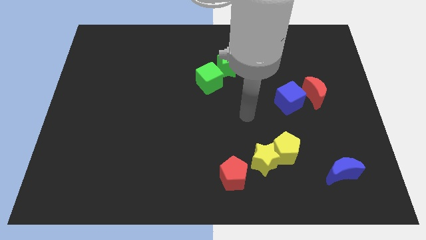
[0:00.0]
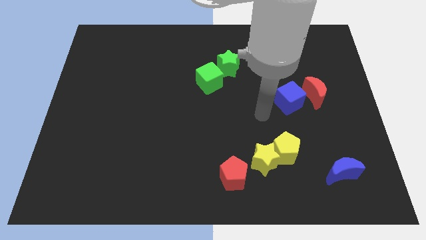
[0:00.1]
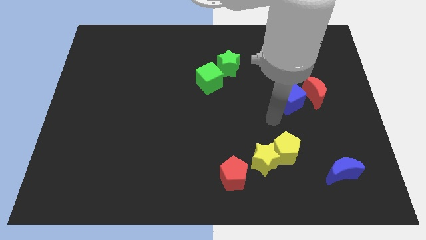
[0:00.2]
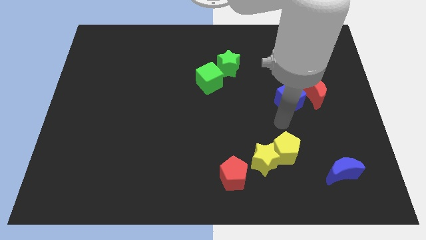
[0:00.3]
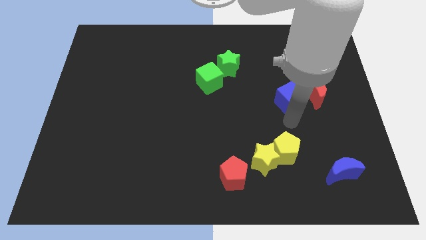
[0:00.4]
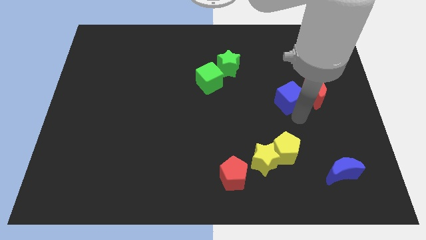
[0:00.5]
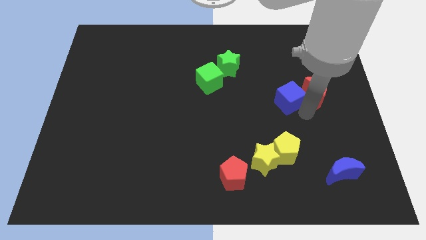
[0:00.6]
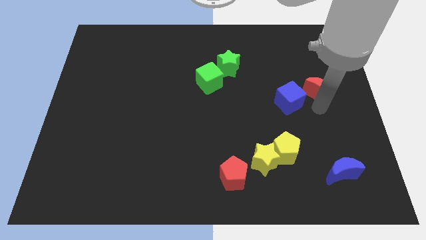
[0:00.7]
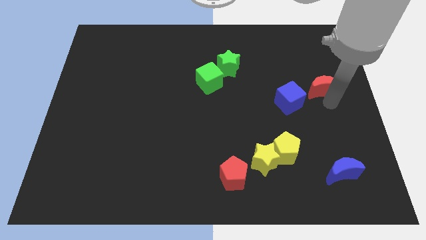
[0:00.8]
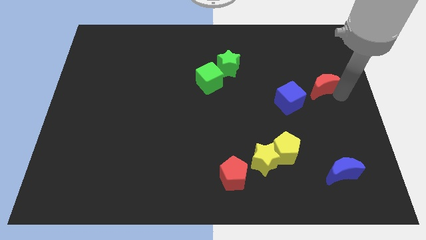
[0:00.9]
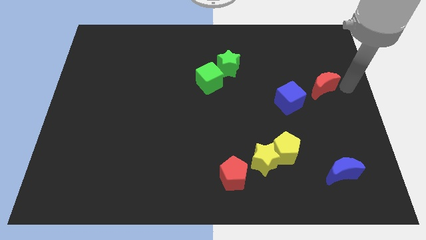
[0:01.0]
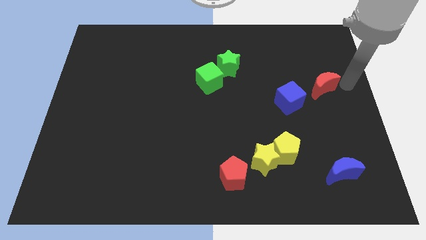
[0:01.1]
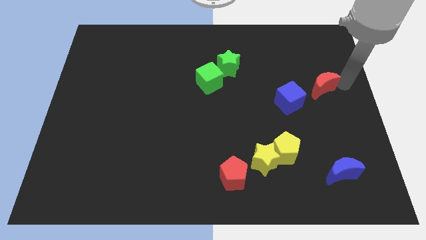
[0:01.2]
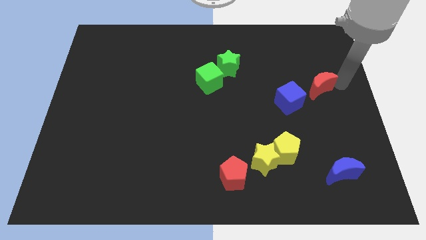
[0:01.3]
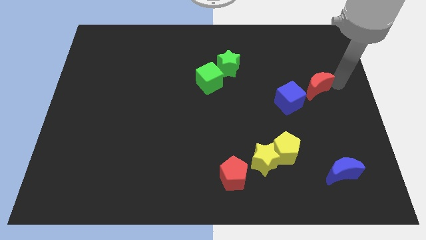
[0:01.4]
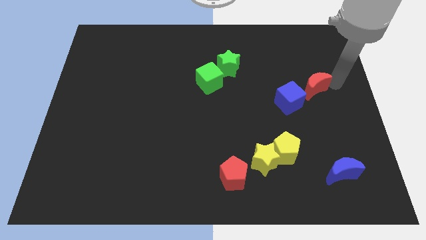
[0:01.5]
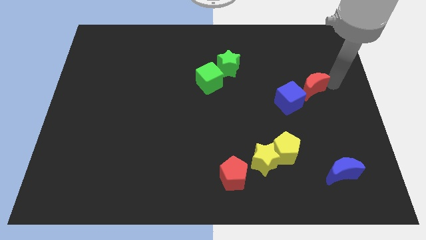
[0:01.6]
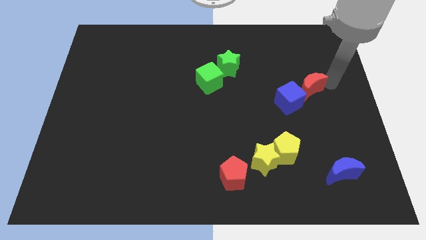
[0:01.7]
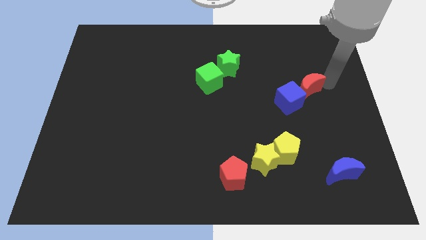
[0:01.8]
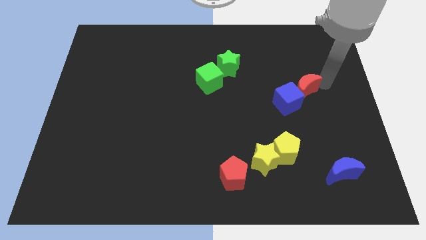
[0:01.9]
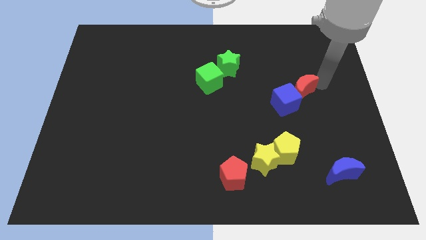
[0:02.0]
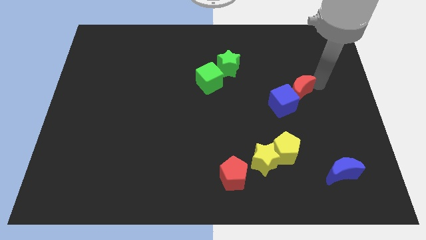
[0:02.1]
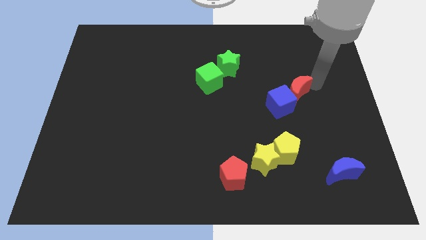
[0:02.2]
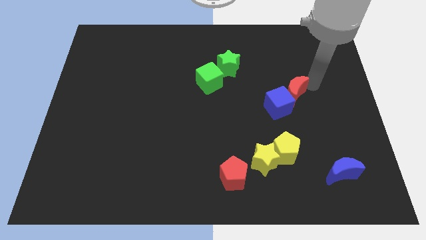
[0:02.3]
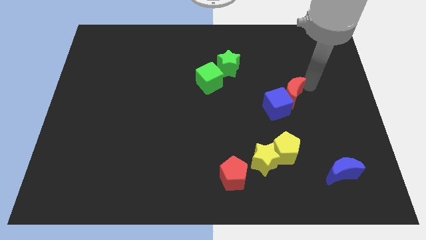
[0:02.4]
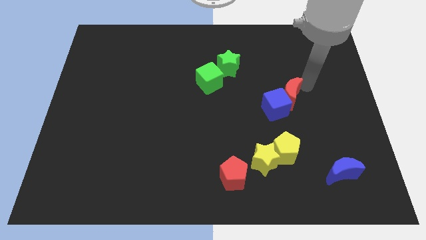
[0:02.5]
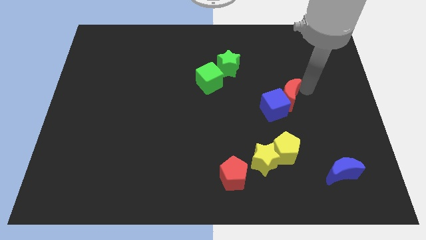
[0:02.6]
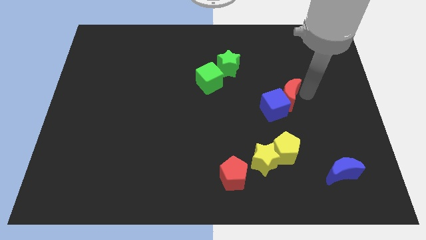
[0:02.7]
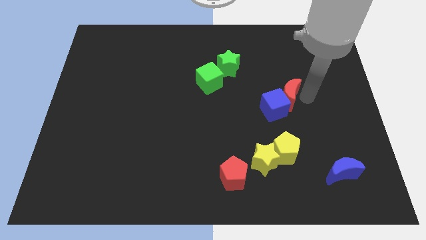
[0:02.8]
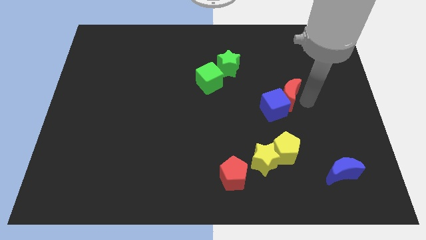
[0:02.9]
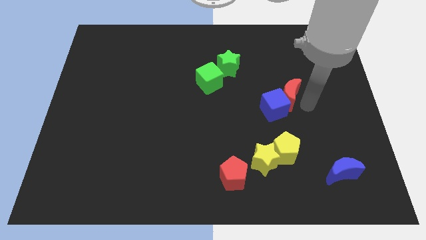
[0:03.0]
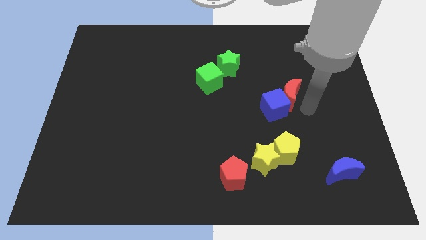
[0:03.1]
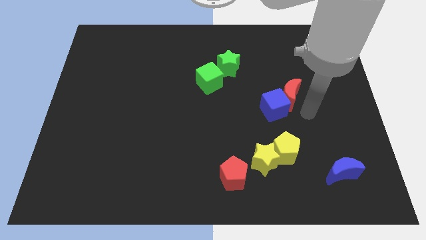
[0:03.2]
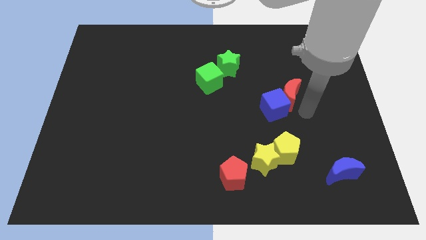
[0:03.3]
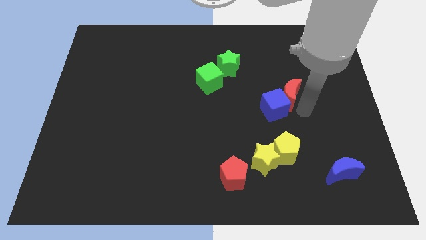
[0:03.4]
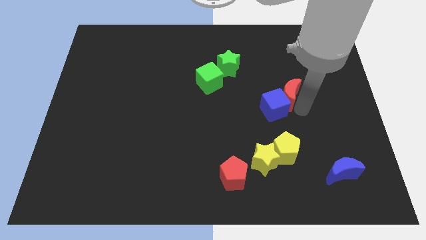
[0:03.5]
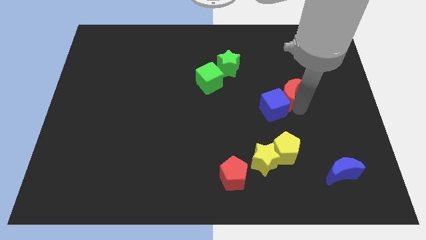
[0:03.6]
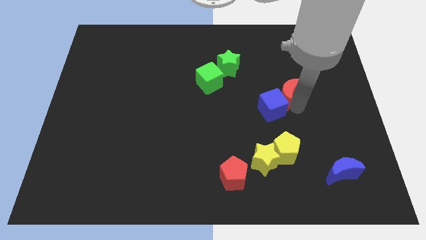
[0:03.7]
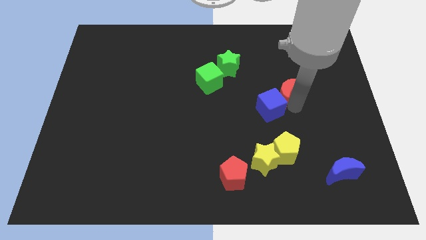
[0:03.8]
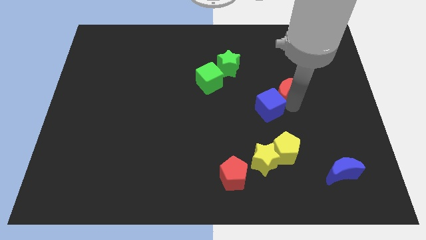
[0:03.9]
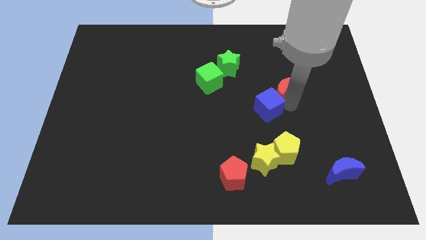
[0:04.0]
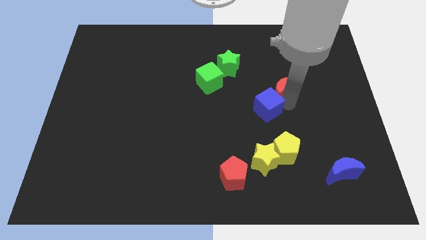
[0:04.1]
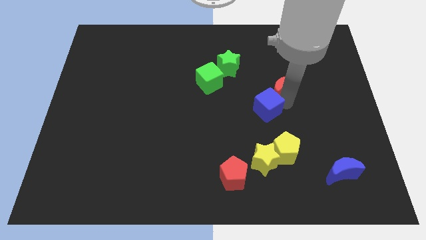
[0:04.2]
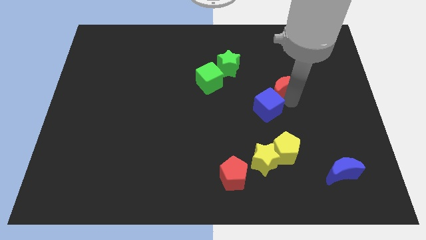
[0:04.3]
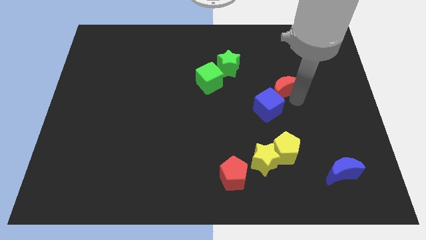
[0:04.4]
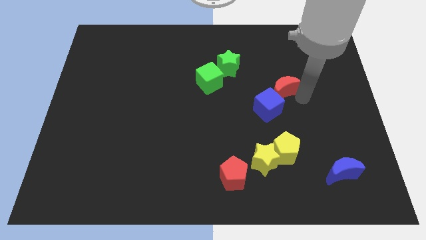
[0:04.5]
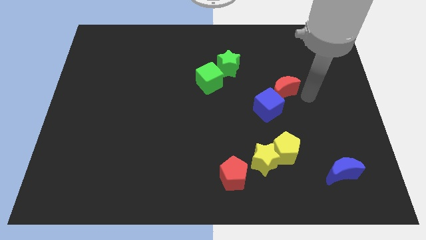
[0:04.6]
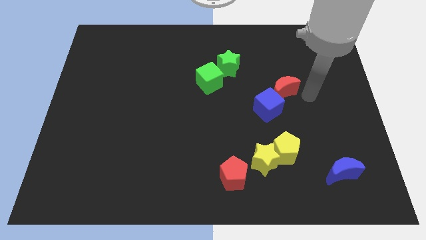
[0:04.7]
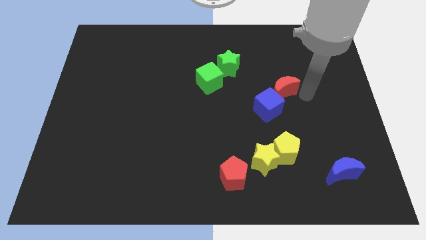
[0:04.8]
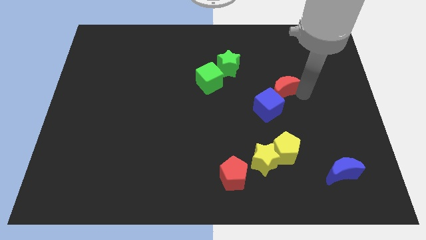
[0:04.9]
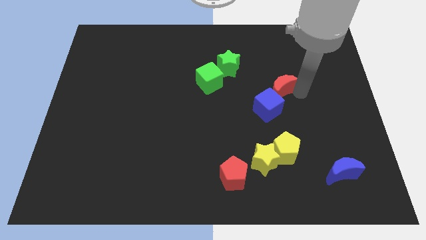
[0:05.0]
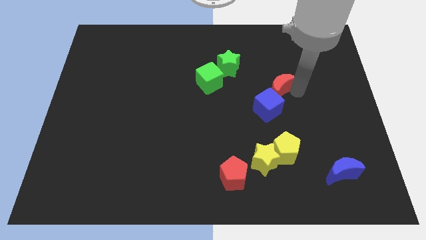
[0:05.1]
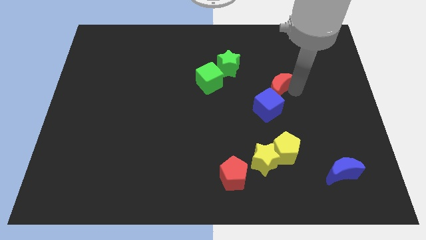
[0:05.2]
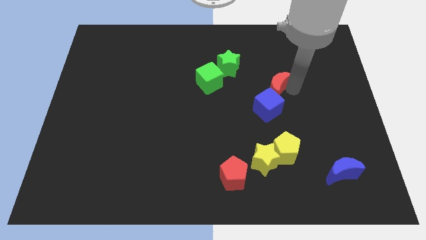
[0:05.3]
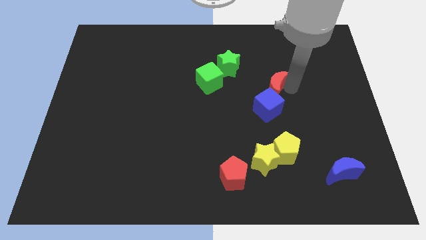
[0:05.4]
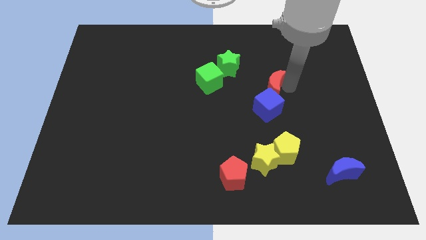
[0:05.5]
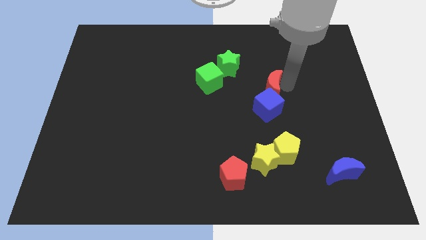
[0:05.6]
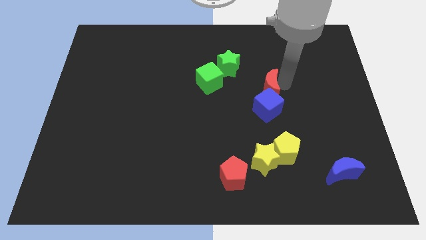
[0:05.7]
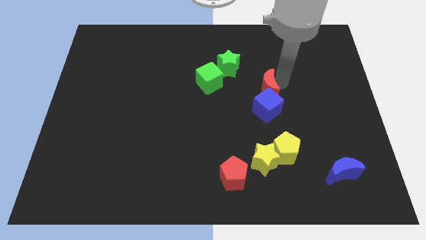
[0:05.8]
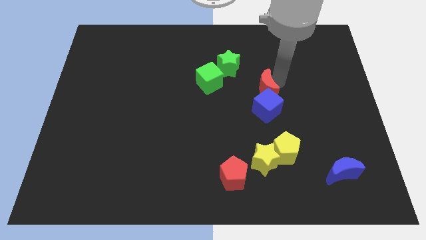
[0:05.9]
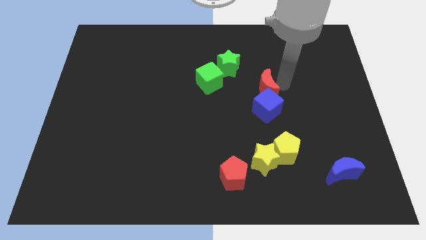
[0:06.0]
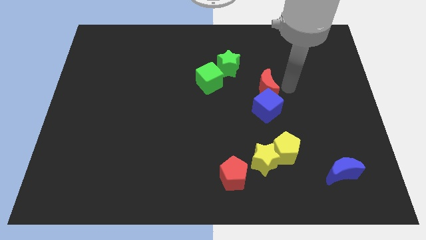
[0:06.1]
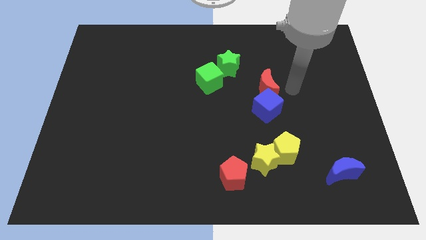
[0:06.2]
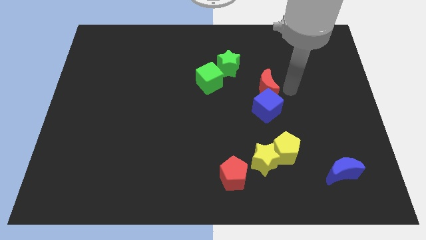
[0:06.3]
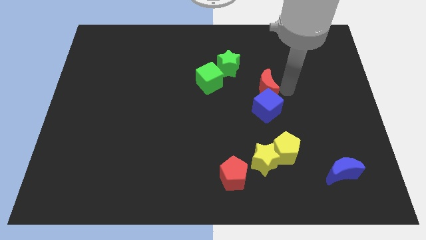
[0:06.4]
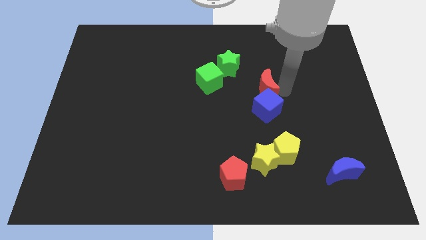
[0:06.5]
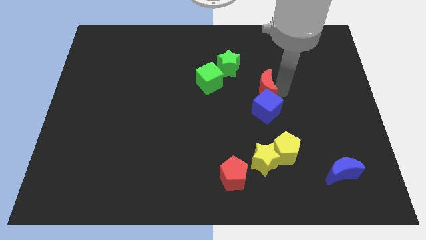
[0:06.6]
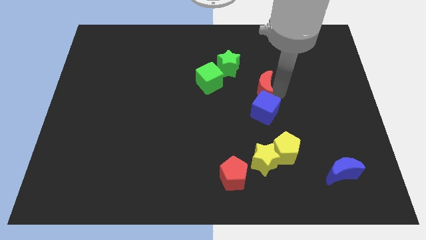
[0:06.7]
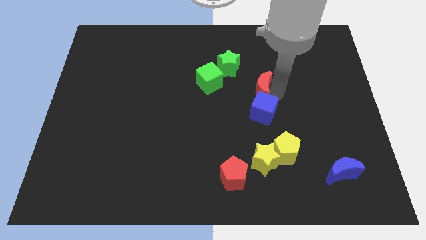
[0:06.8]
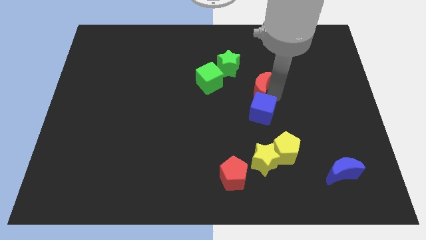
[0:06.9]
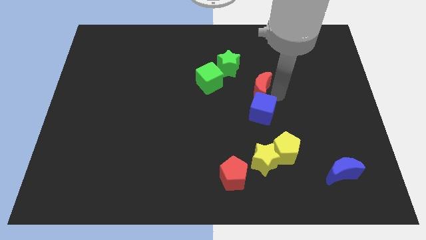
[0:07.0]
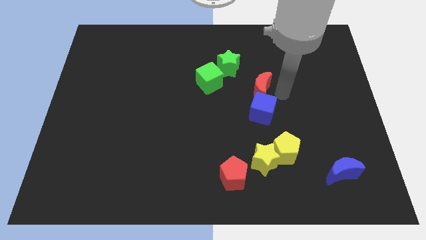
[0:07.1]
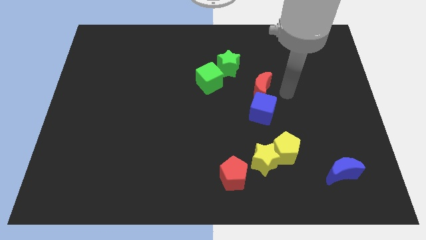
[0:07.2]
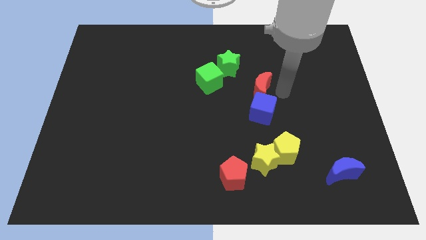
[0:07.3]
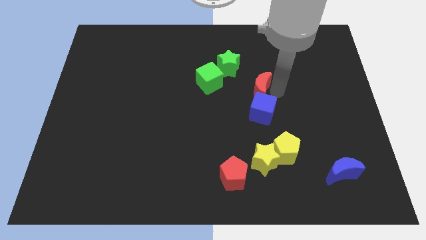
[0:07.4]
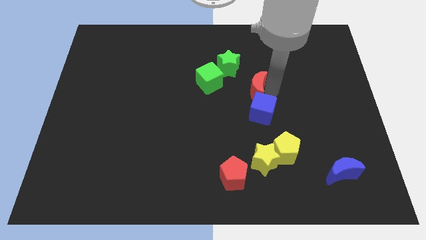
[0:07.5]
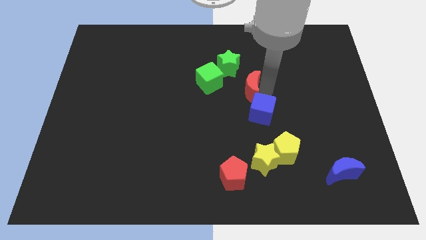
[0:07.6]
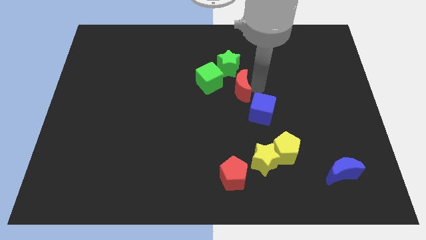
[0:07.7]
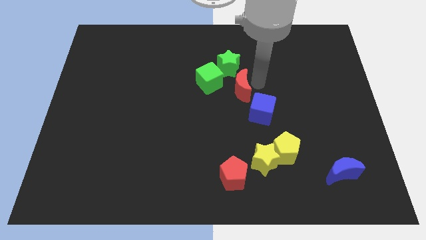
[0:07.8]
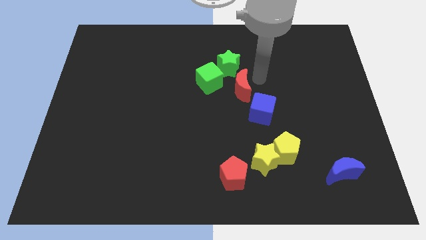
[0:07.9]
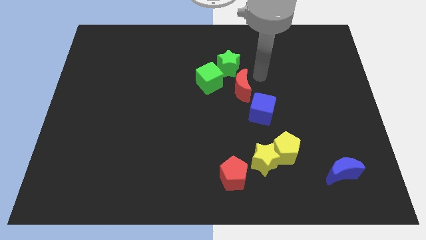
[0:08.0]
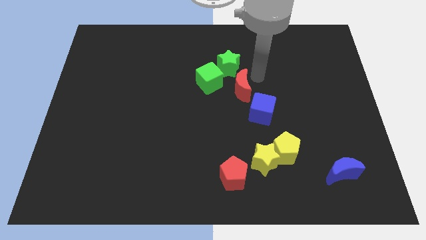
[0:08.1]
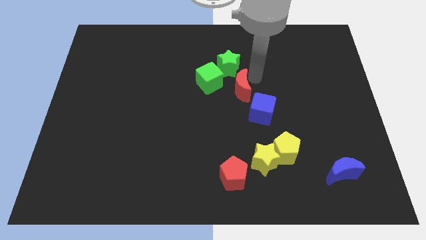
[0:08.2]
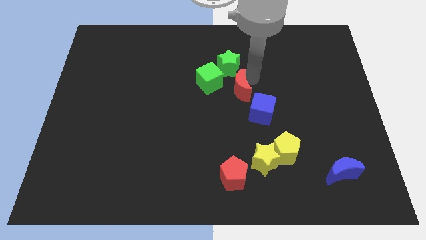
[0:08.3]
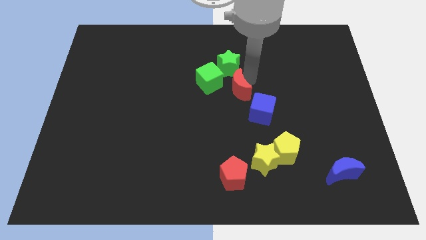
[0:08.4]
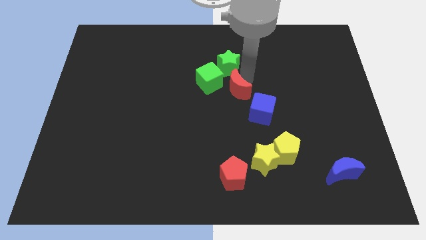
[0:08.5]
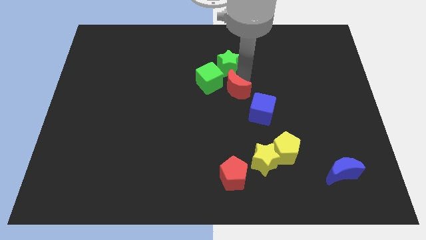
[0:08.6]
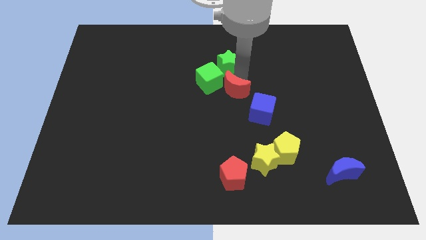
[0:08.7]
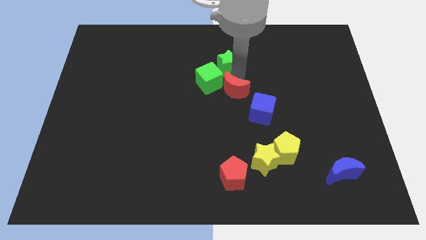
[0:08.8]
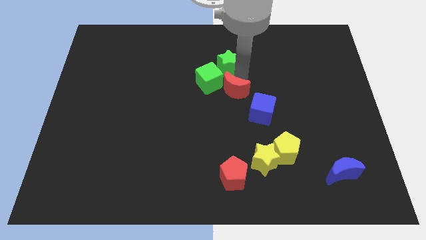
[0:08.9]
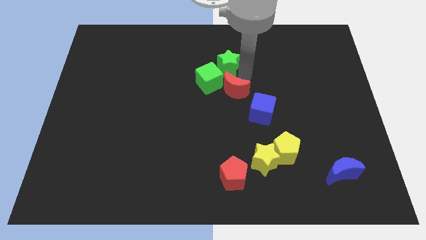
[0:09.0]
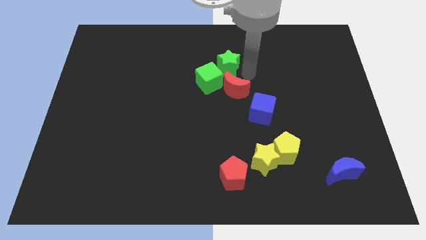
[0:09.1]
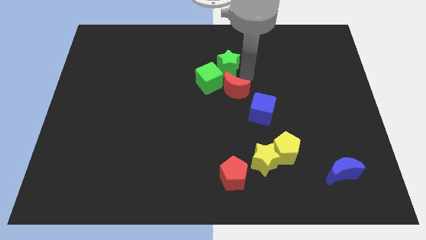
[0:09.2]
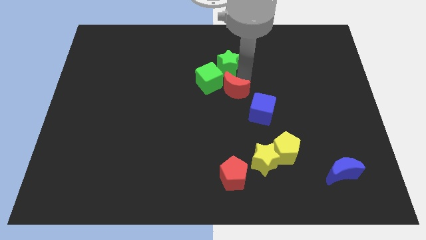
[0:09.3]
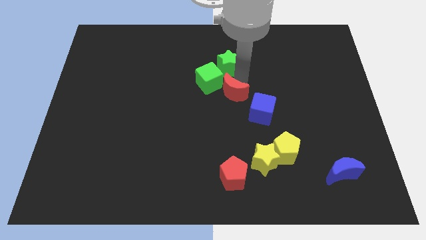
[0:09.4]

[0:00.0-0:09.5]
move the red moon to the left
